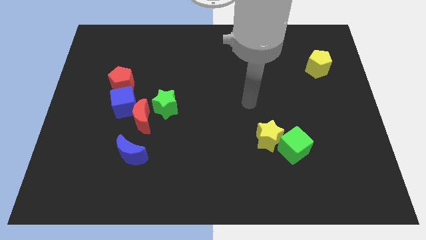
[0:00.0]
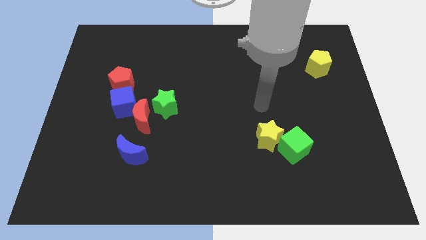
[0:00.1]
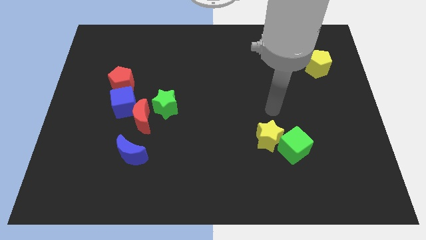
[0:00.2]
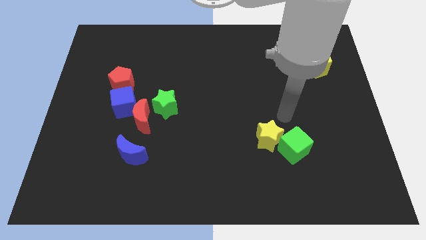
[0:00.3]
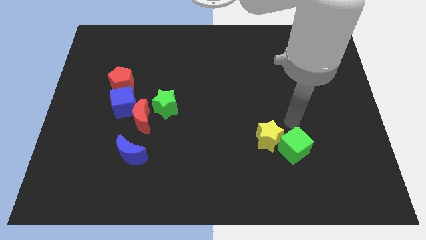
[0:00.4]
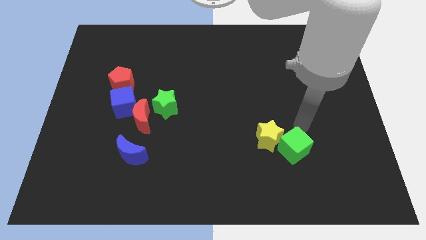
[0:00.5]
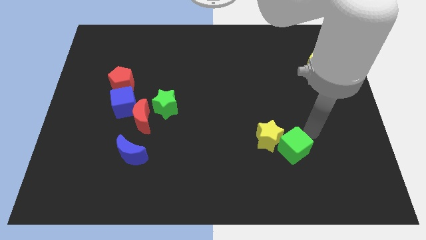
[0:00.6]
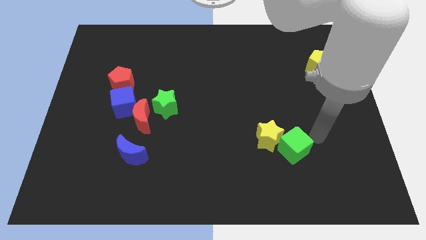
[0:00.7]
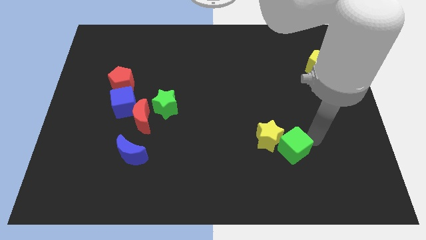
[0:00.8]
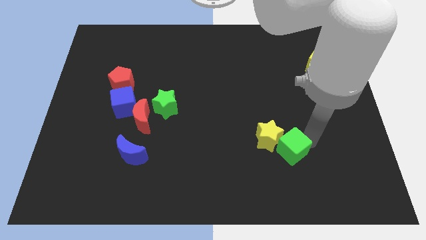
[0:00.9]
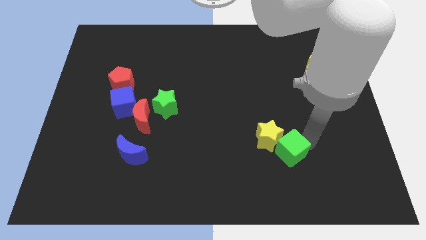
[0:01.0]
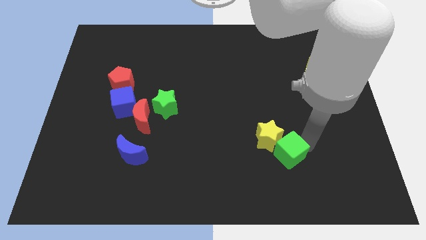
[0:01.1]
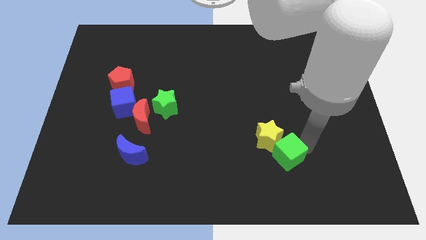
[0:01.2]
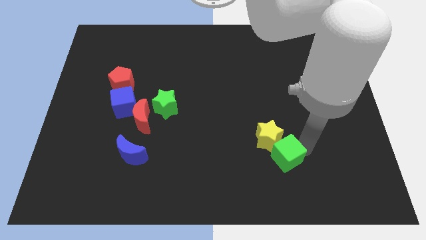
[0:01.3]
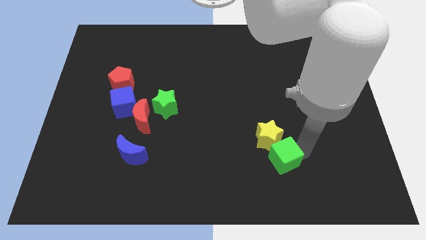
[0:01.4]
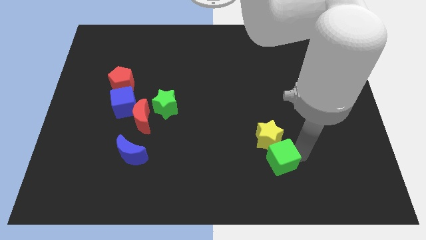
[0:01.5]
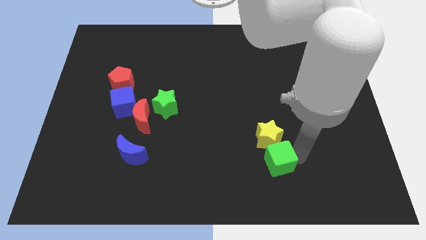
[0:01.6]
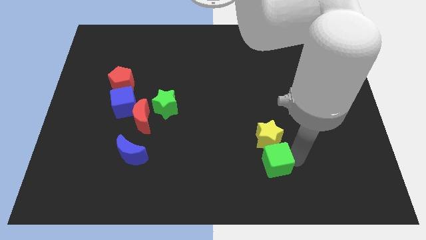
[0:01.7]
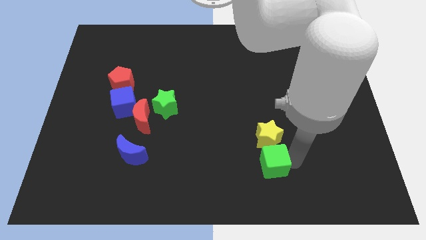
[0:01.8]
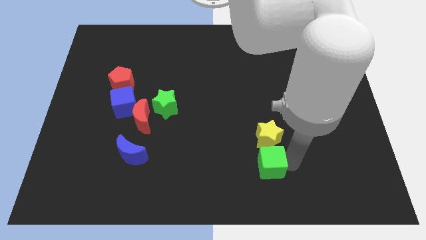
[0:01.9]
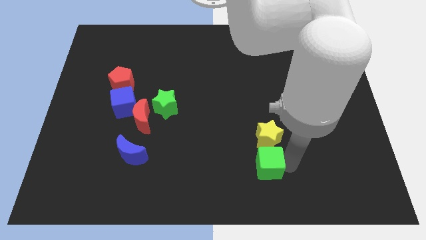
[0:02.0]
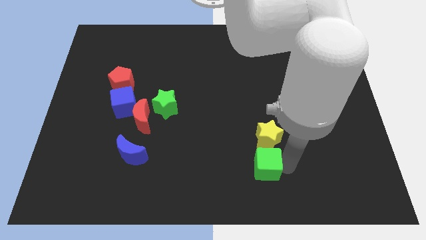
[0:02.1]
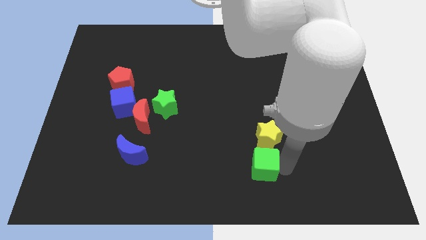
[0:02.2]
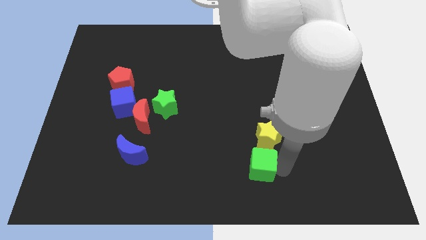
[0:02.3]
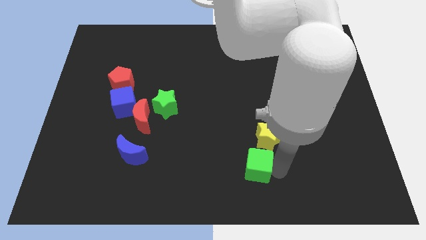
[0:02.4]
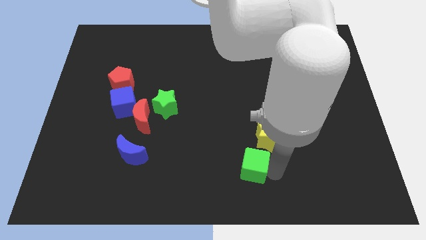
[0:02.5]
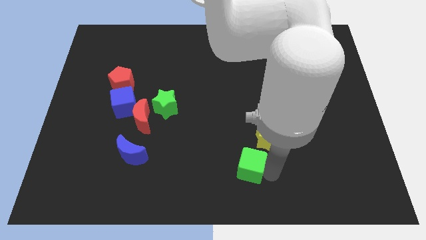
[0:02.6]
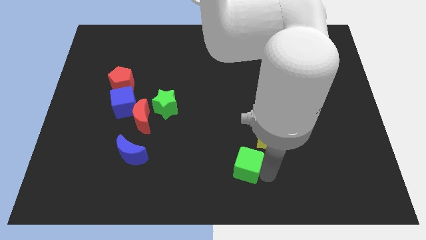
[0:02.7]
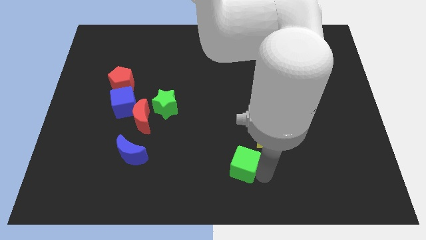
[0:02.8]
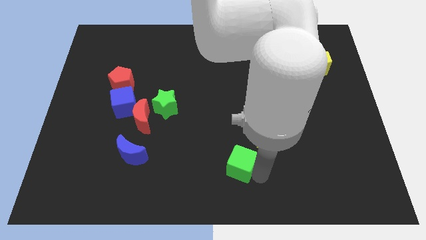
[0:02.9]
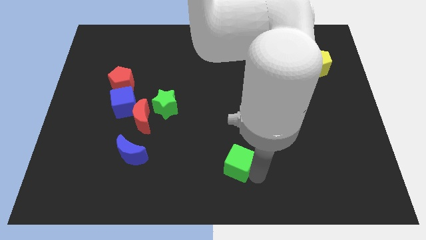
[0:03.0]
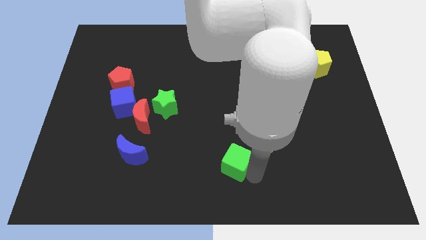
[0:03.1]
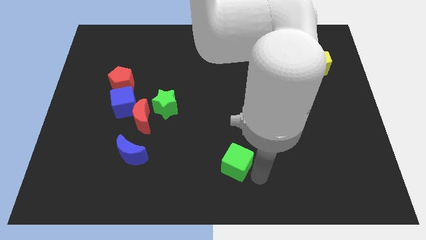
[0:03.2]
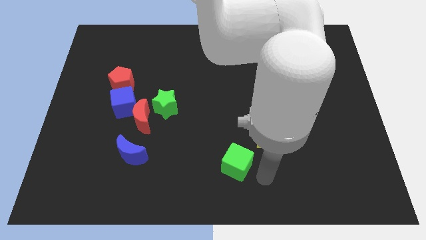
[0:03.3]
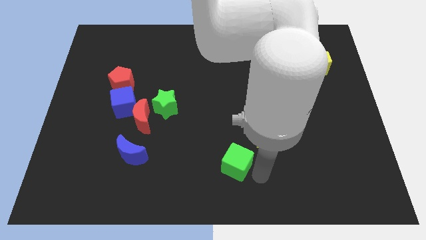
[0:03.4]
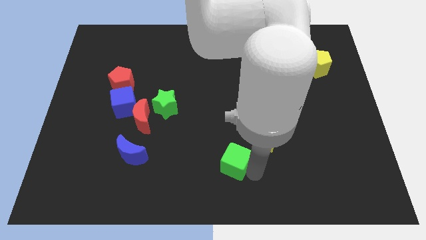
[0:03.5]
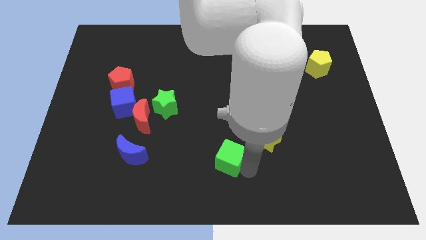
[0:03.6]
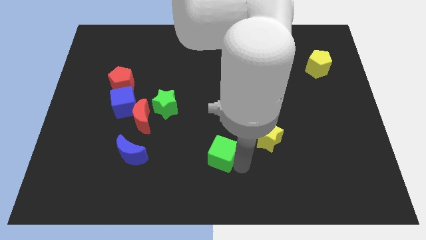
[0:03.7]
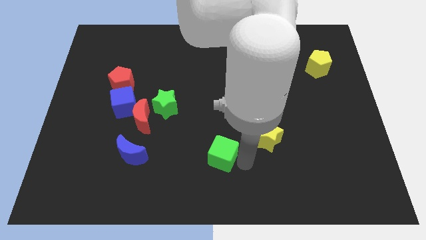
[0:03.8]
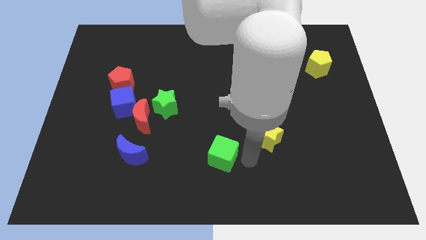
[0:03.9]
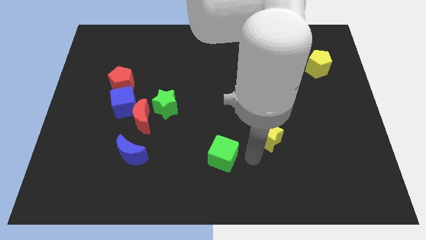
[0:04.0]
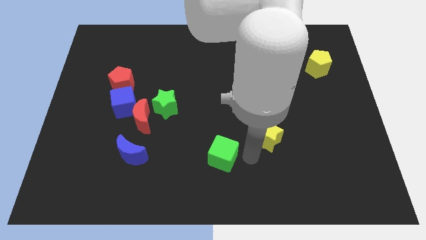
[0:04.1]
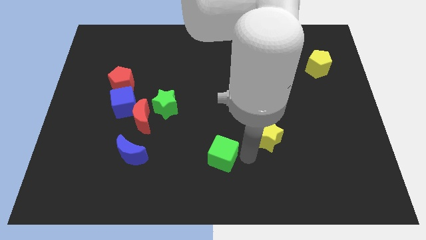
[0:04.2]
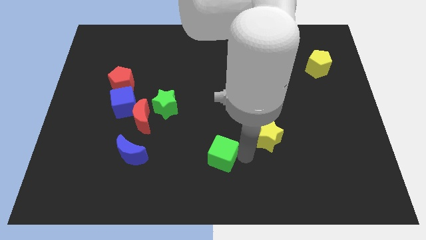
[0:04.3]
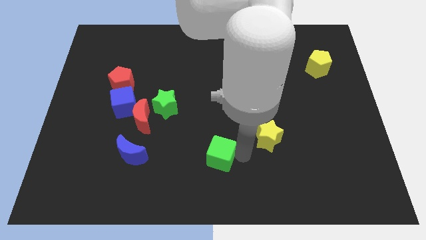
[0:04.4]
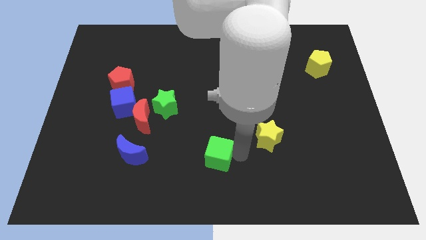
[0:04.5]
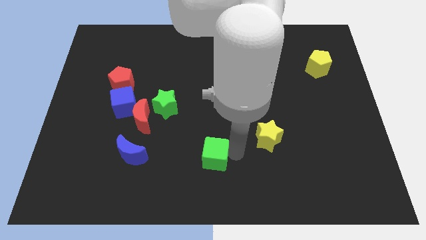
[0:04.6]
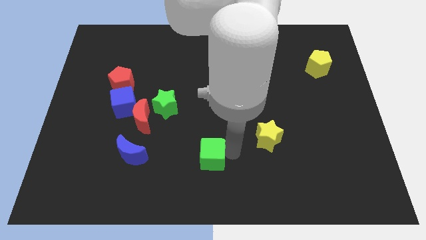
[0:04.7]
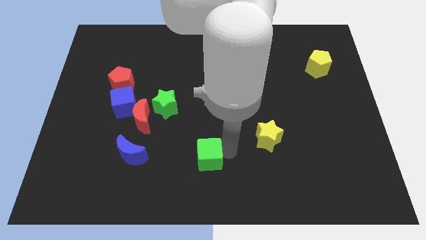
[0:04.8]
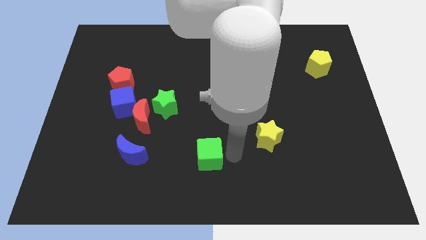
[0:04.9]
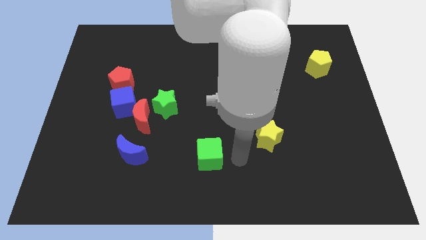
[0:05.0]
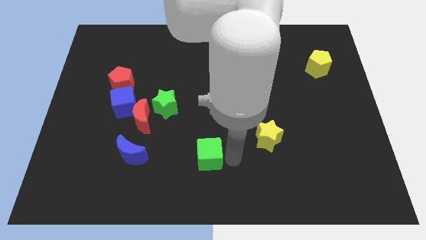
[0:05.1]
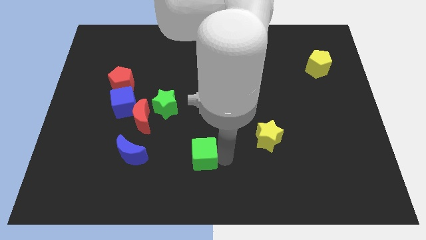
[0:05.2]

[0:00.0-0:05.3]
move the green cube to the right side of the blue moon

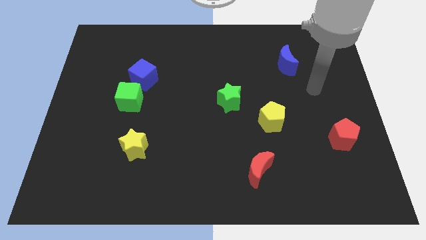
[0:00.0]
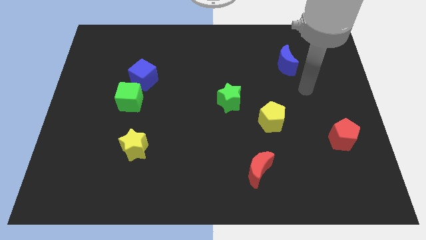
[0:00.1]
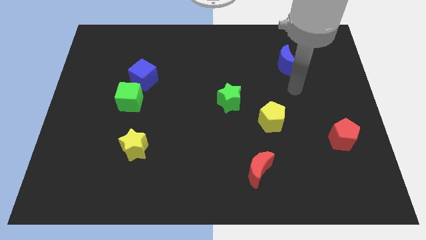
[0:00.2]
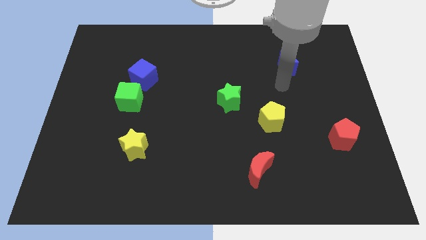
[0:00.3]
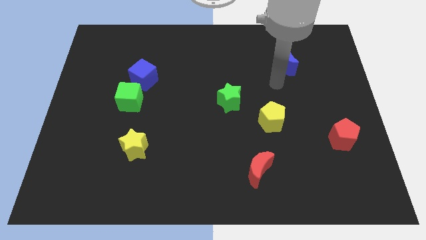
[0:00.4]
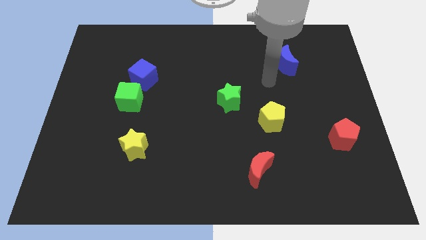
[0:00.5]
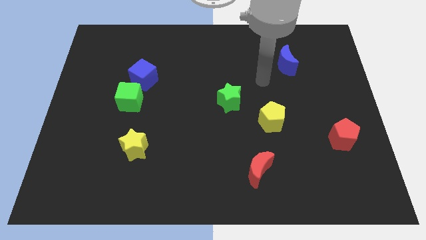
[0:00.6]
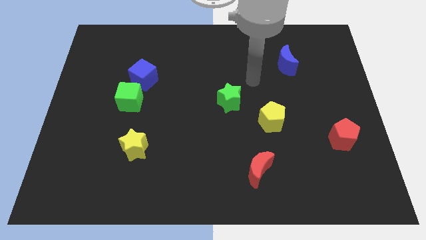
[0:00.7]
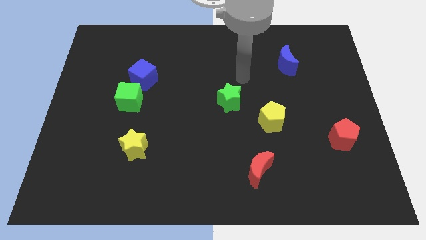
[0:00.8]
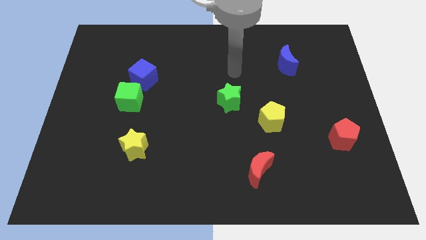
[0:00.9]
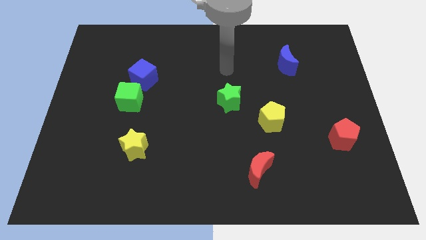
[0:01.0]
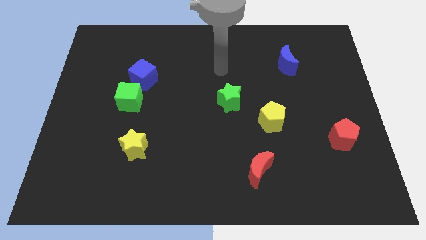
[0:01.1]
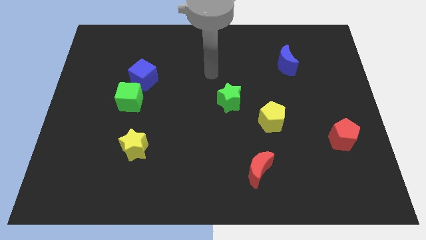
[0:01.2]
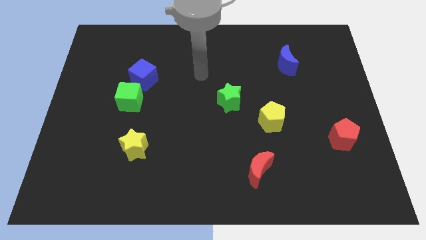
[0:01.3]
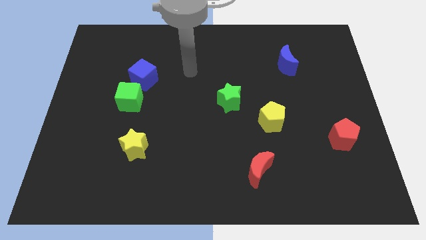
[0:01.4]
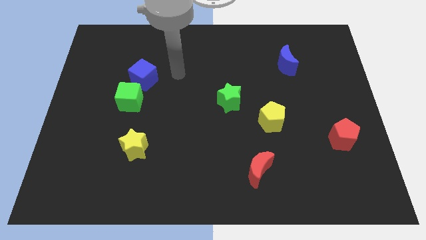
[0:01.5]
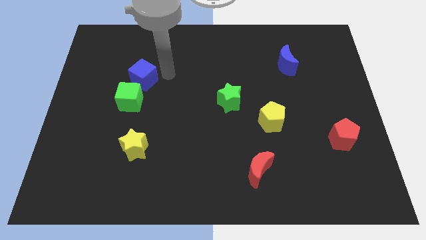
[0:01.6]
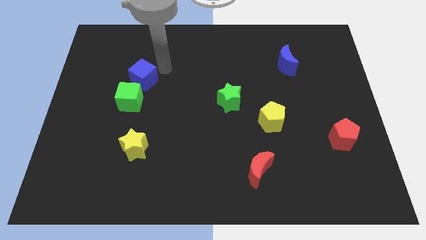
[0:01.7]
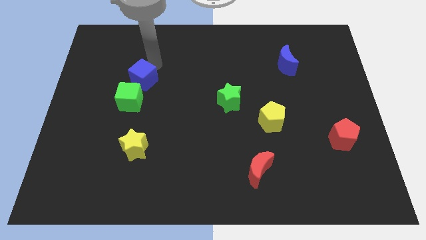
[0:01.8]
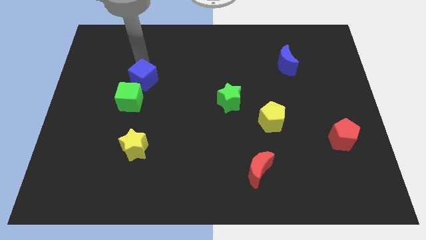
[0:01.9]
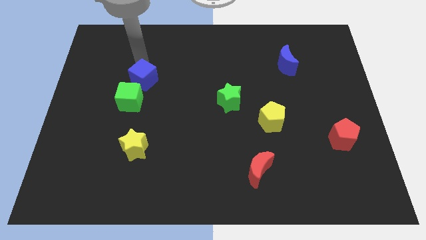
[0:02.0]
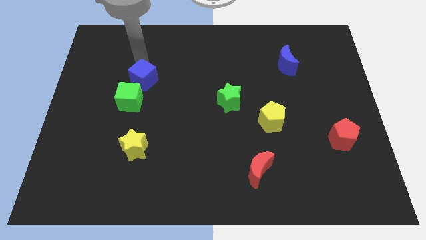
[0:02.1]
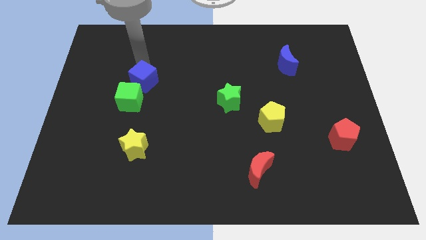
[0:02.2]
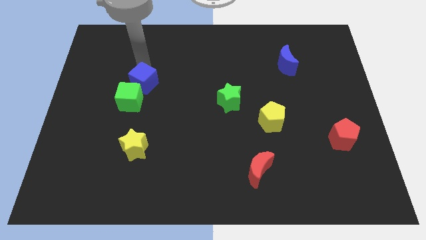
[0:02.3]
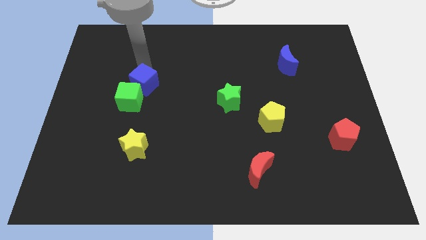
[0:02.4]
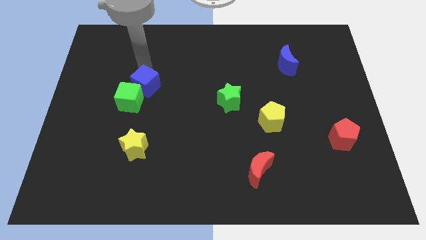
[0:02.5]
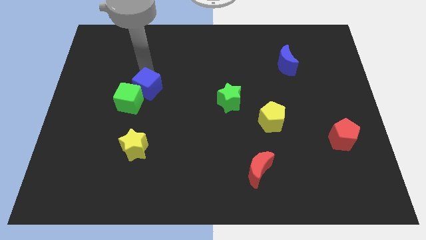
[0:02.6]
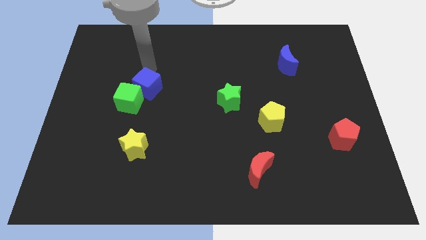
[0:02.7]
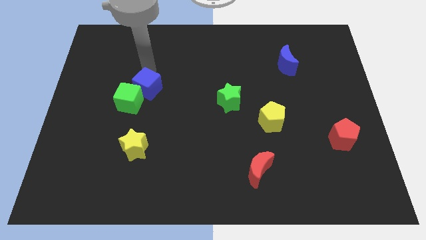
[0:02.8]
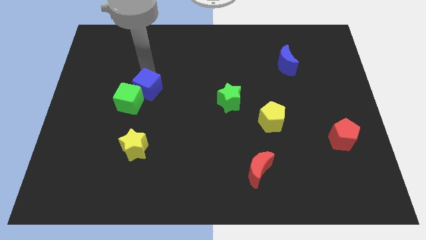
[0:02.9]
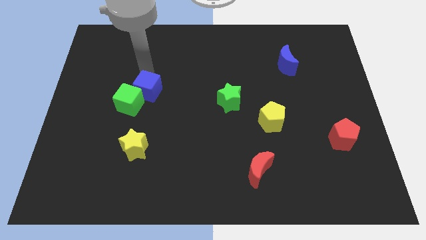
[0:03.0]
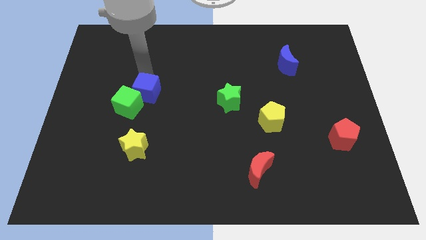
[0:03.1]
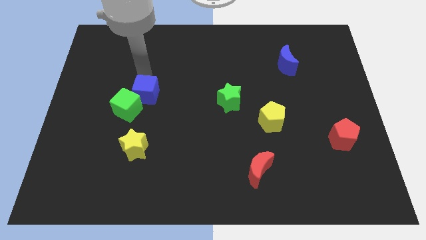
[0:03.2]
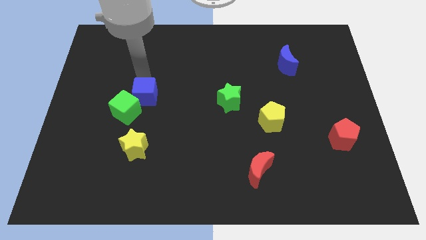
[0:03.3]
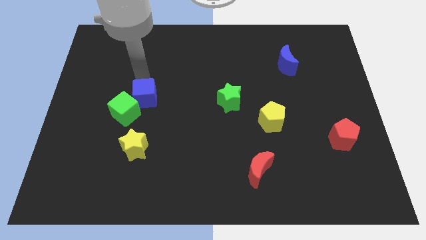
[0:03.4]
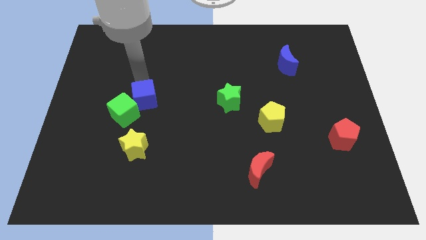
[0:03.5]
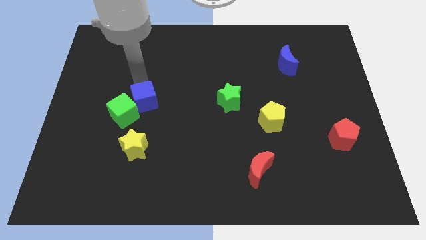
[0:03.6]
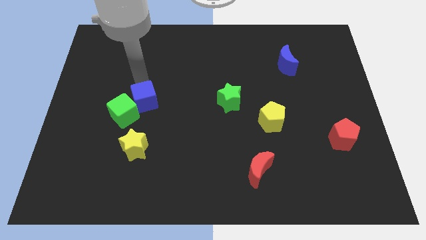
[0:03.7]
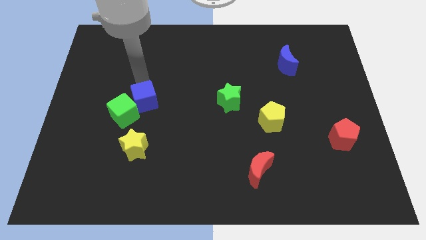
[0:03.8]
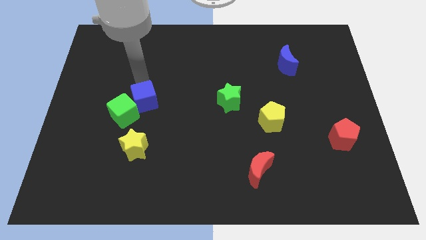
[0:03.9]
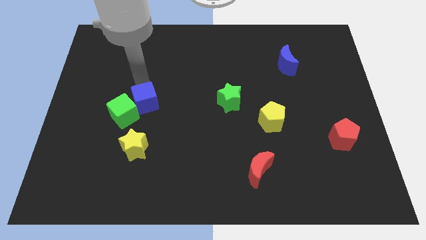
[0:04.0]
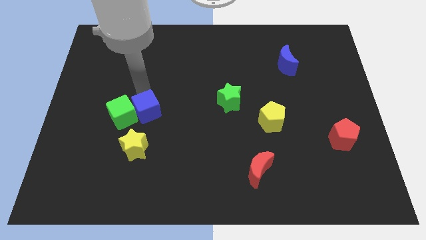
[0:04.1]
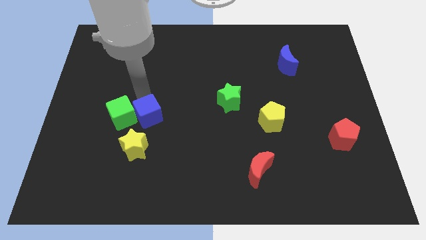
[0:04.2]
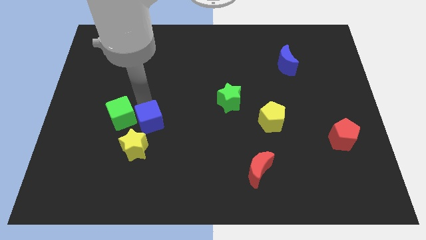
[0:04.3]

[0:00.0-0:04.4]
put the blue cube diagonally up and to the right of the yellow star
